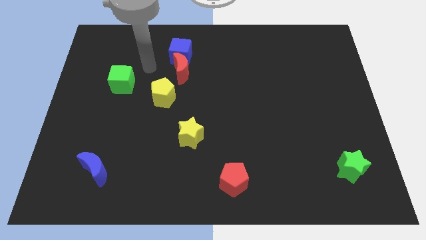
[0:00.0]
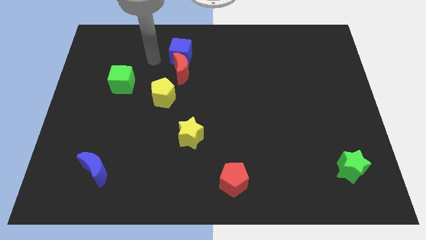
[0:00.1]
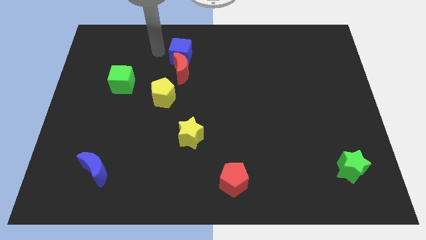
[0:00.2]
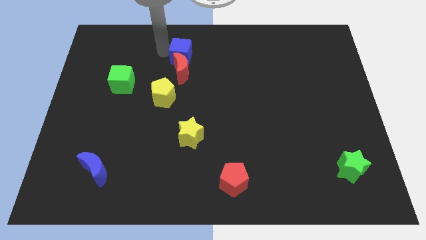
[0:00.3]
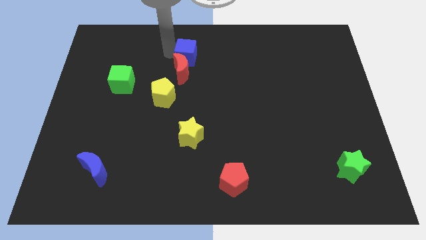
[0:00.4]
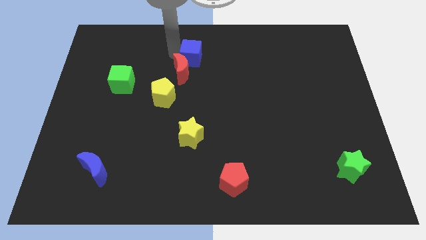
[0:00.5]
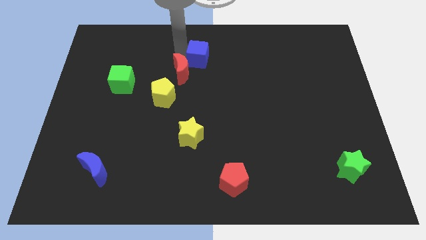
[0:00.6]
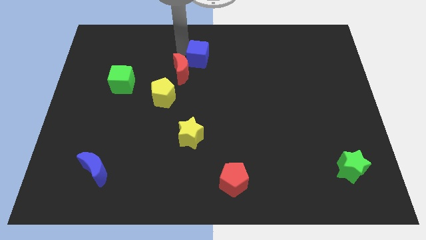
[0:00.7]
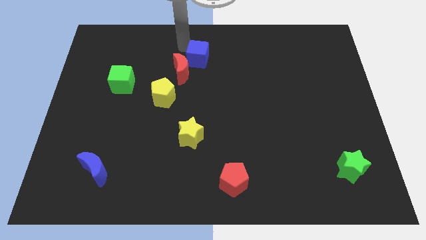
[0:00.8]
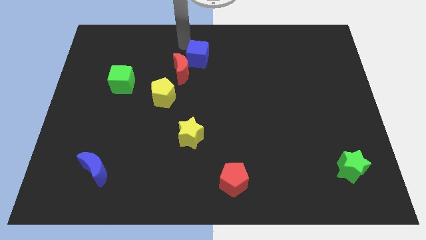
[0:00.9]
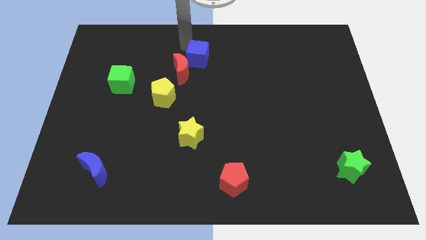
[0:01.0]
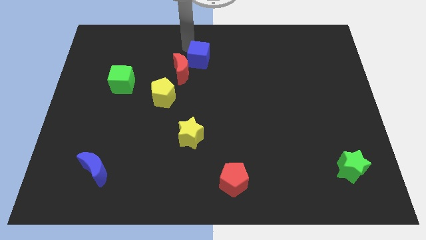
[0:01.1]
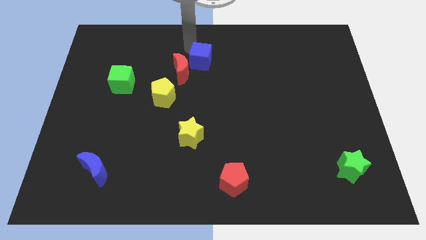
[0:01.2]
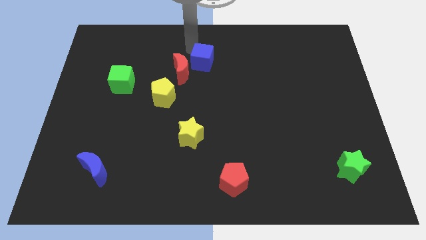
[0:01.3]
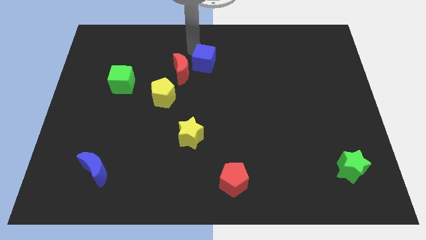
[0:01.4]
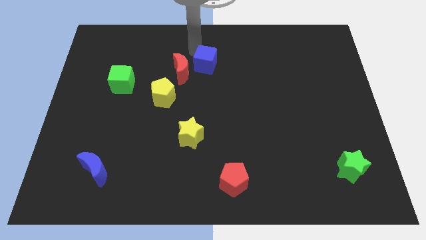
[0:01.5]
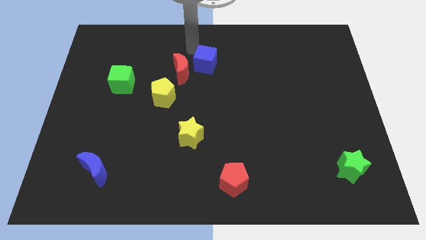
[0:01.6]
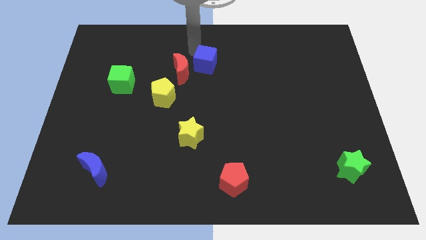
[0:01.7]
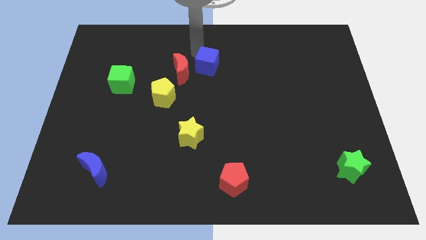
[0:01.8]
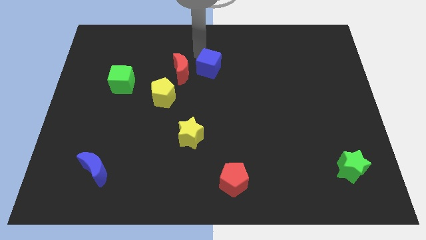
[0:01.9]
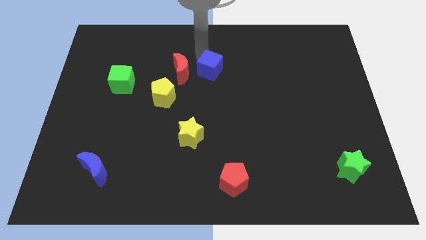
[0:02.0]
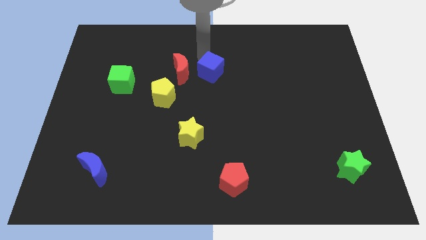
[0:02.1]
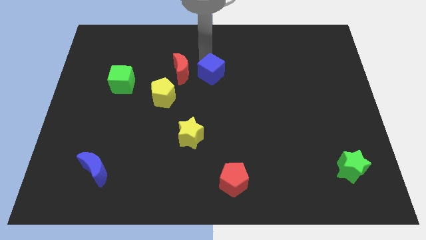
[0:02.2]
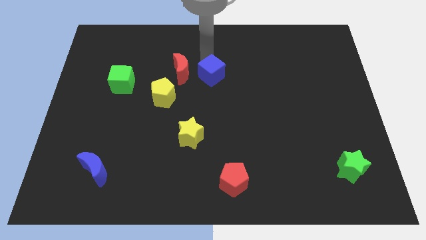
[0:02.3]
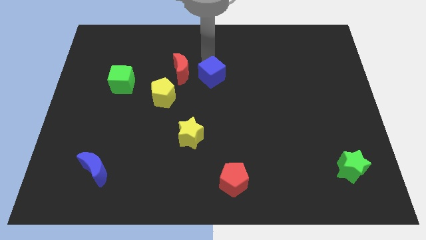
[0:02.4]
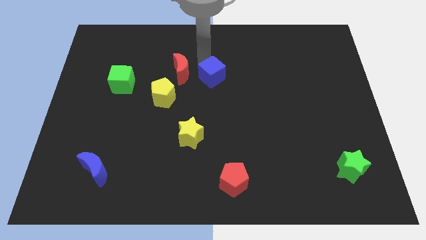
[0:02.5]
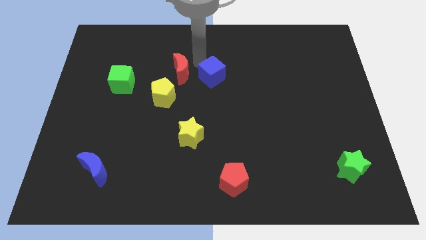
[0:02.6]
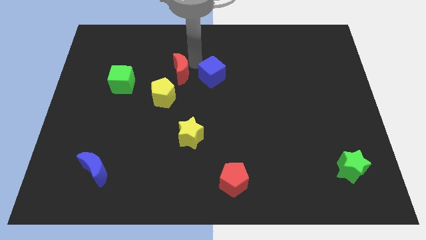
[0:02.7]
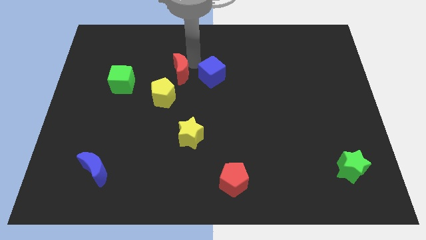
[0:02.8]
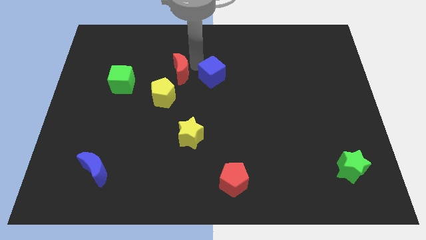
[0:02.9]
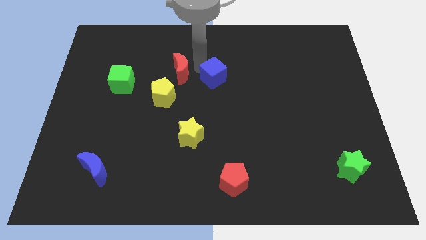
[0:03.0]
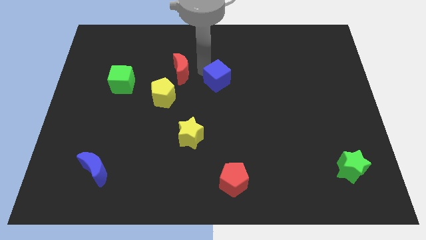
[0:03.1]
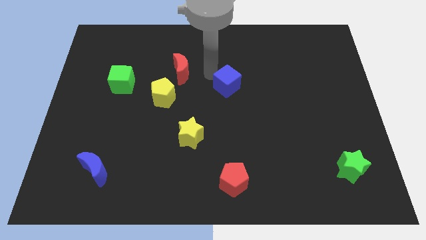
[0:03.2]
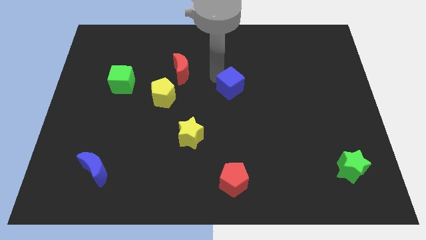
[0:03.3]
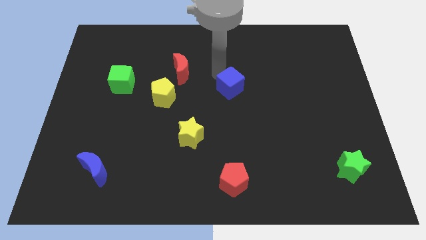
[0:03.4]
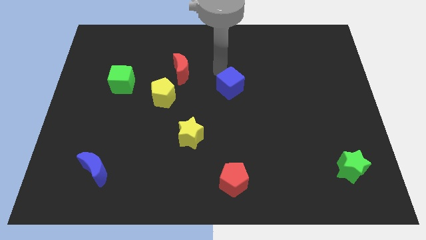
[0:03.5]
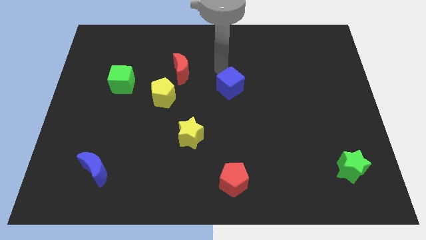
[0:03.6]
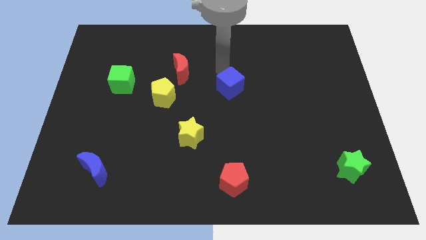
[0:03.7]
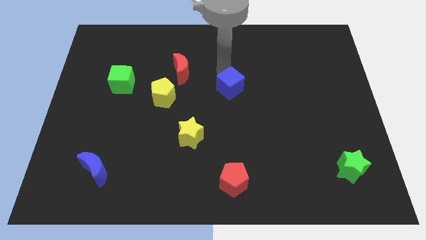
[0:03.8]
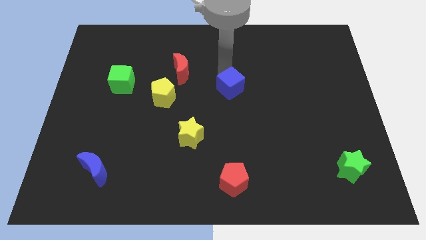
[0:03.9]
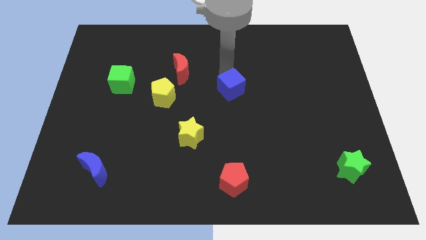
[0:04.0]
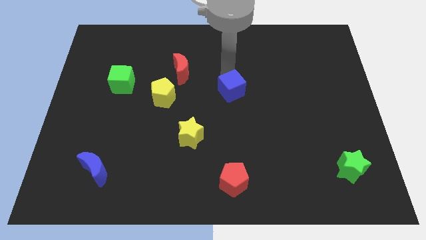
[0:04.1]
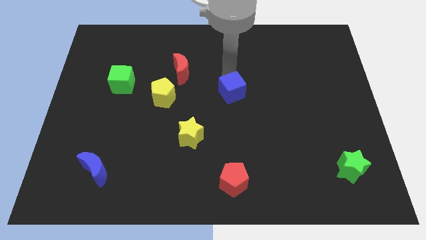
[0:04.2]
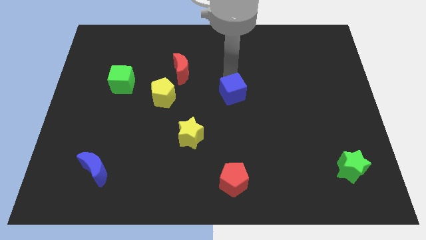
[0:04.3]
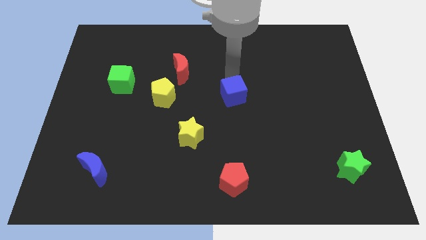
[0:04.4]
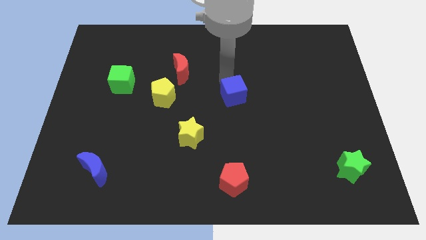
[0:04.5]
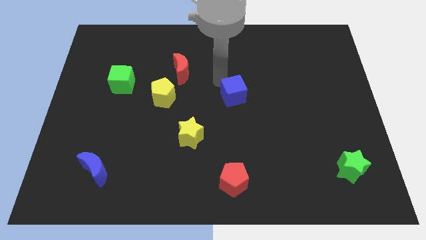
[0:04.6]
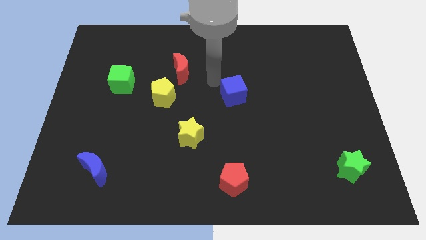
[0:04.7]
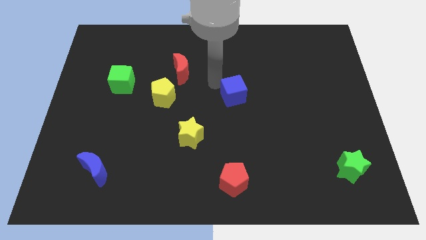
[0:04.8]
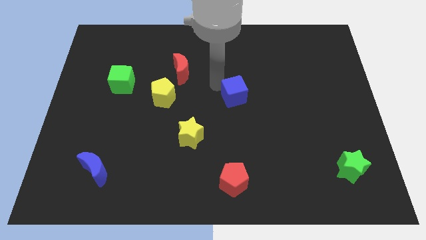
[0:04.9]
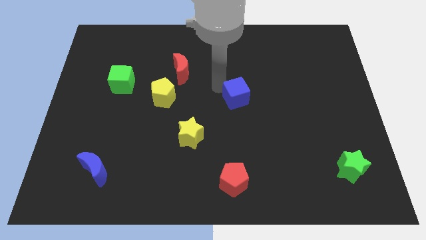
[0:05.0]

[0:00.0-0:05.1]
push the blue cube downwards and to the right diagonally

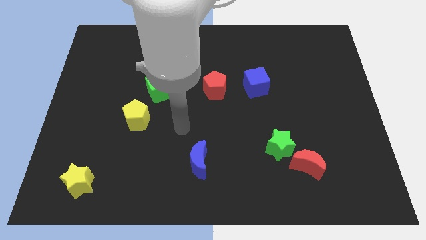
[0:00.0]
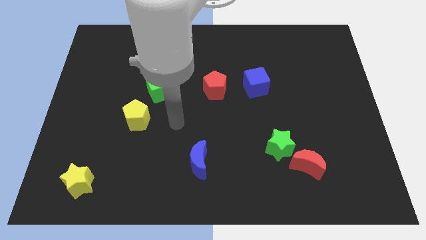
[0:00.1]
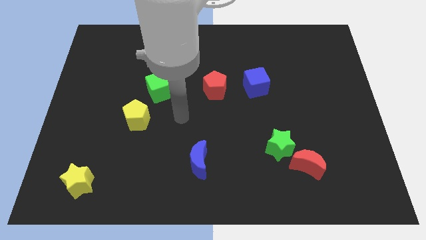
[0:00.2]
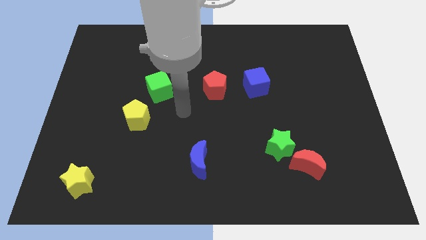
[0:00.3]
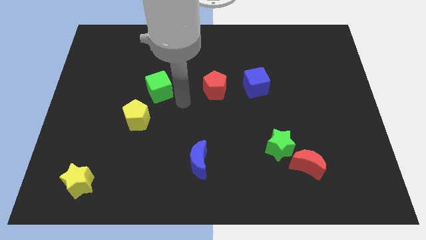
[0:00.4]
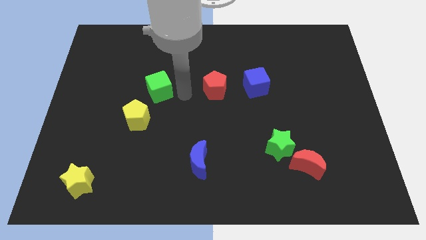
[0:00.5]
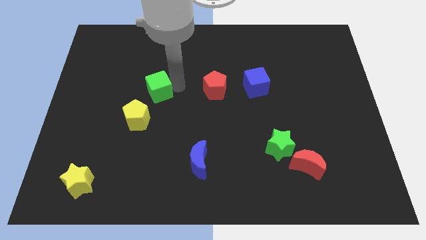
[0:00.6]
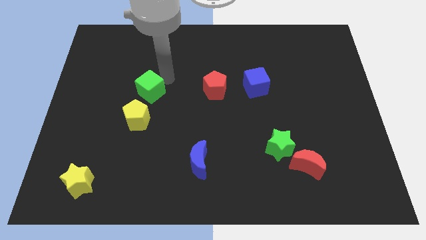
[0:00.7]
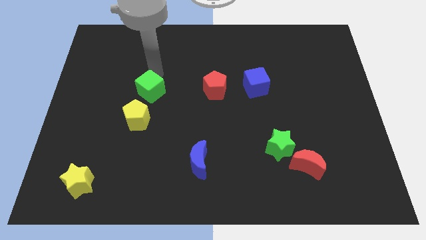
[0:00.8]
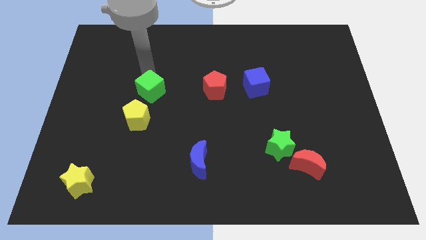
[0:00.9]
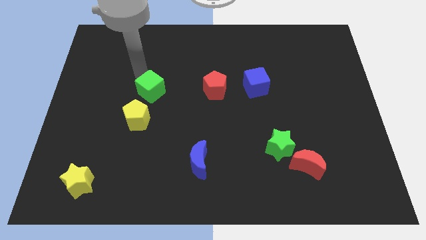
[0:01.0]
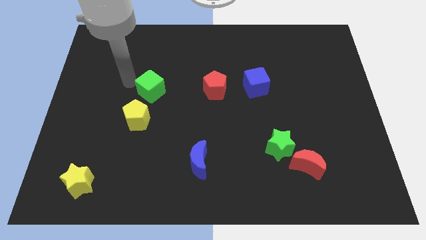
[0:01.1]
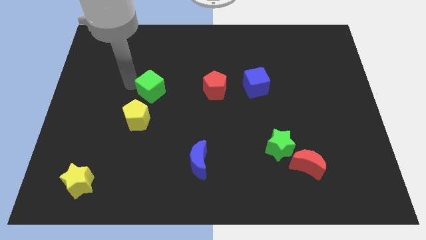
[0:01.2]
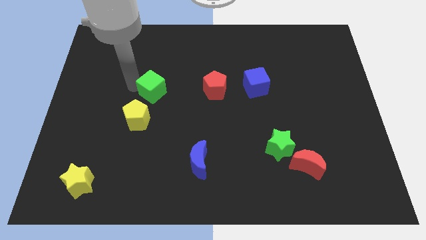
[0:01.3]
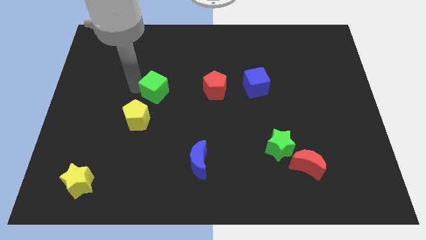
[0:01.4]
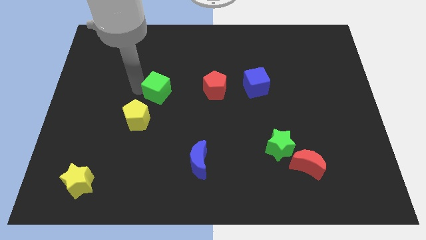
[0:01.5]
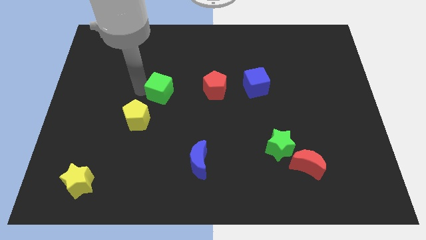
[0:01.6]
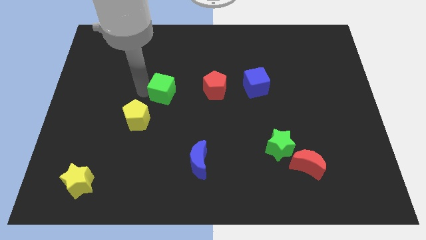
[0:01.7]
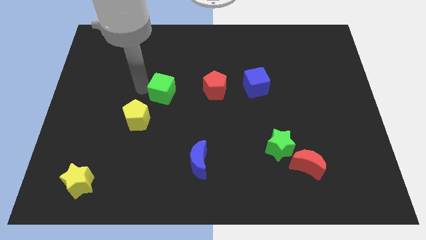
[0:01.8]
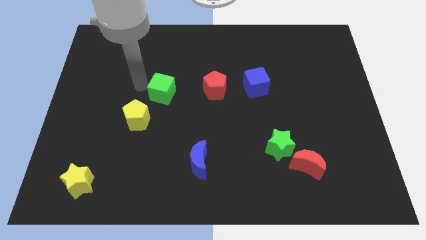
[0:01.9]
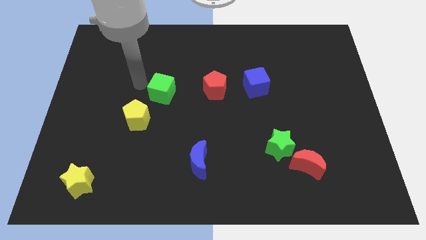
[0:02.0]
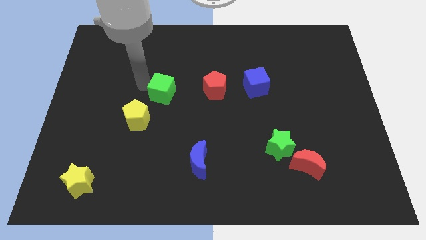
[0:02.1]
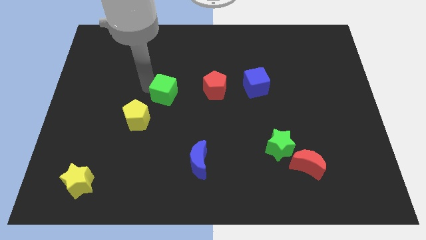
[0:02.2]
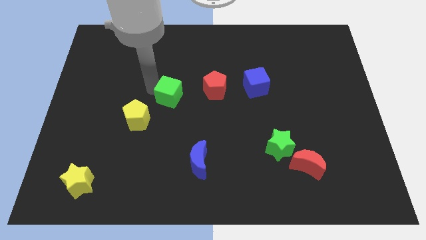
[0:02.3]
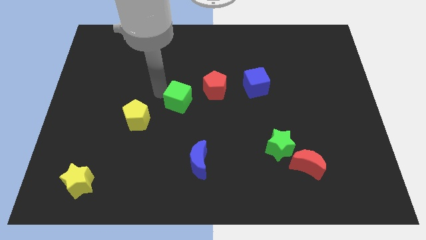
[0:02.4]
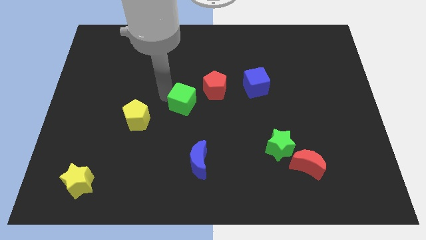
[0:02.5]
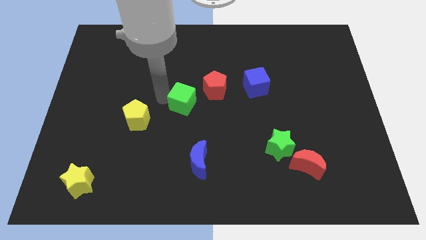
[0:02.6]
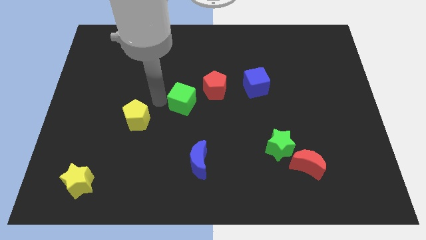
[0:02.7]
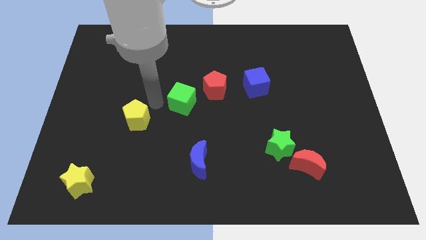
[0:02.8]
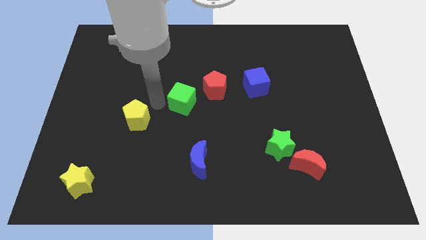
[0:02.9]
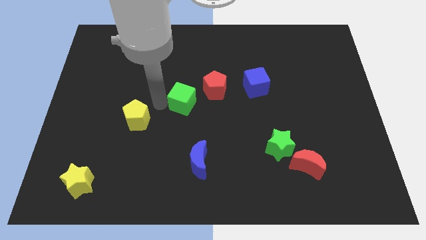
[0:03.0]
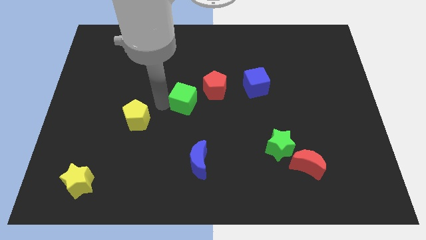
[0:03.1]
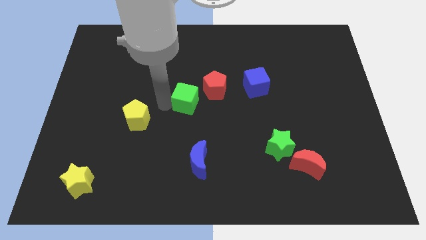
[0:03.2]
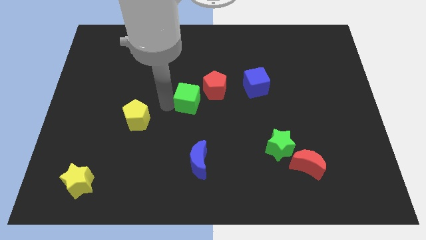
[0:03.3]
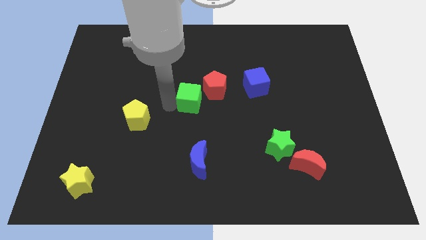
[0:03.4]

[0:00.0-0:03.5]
push the green cube a bit right
